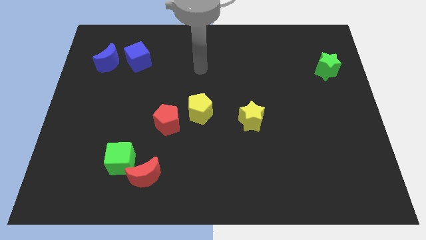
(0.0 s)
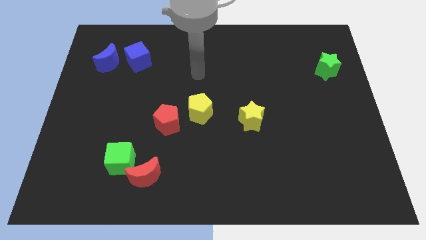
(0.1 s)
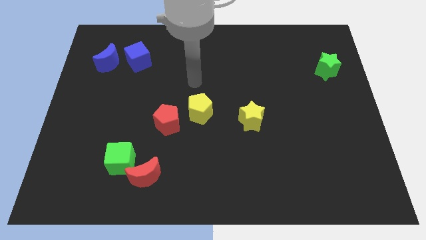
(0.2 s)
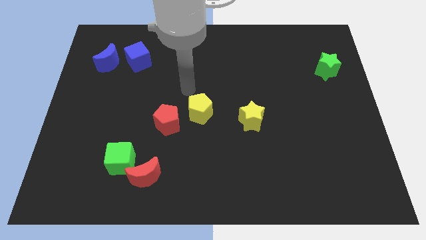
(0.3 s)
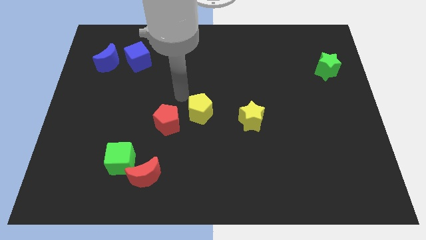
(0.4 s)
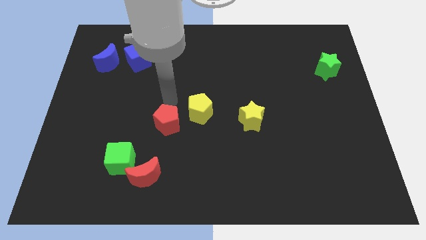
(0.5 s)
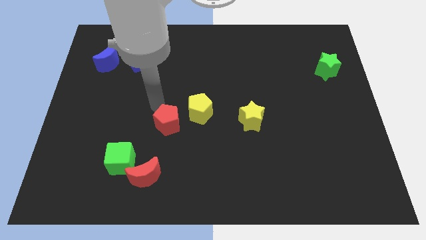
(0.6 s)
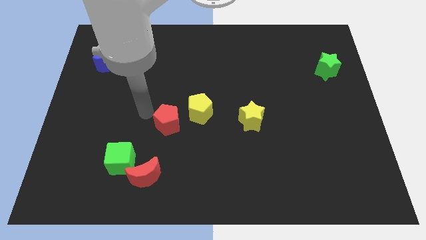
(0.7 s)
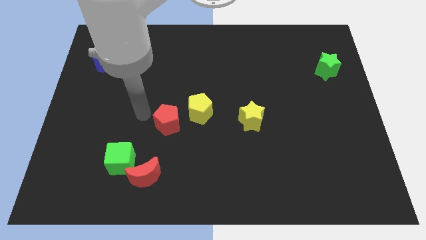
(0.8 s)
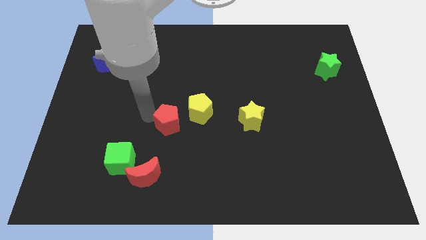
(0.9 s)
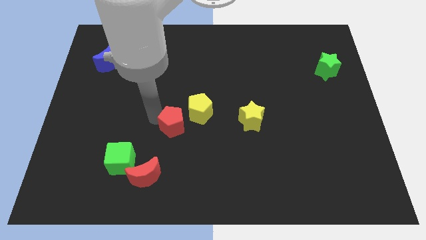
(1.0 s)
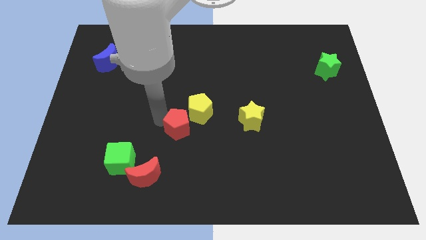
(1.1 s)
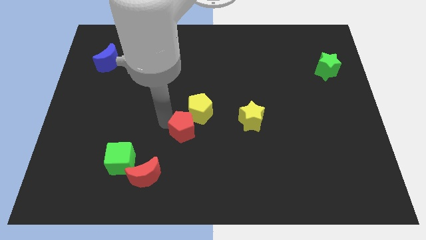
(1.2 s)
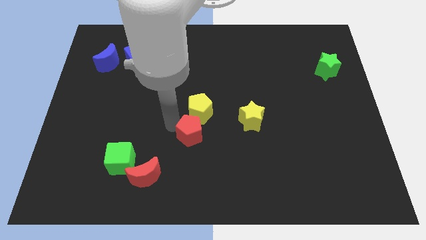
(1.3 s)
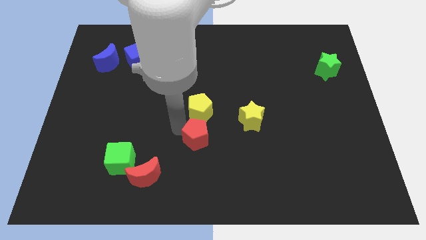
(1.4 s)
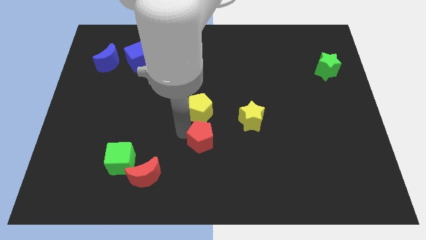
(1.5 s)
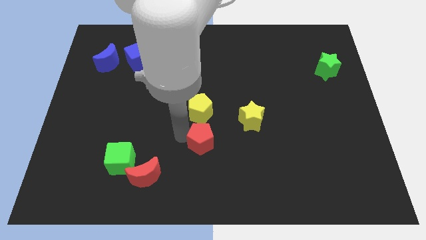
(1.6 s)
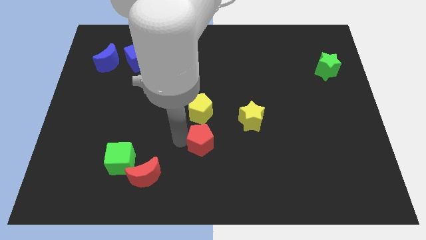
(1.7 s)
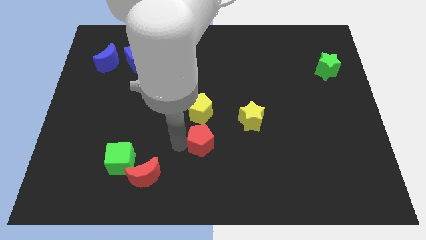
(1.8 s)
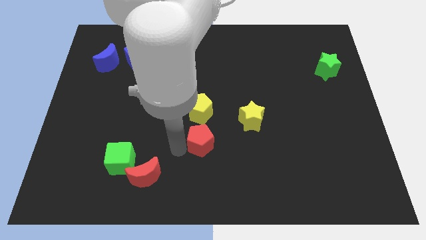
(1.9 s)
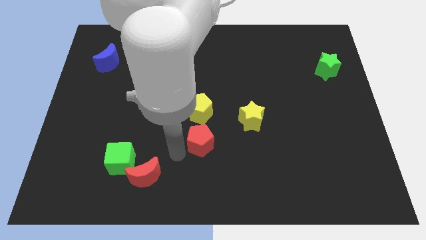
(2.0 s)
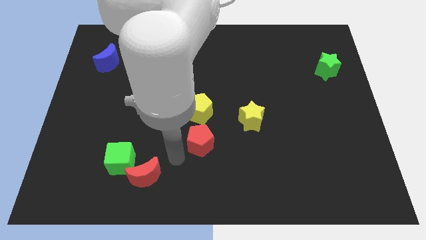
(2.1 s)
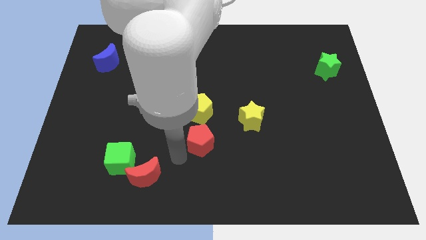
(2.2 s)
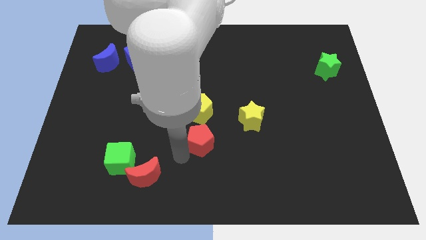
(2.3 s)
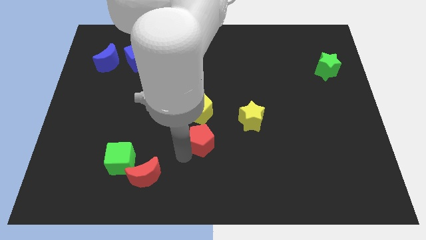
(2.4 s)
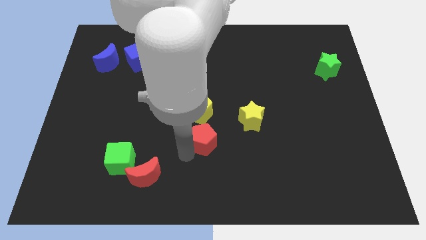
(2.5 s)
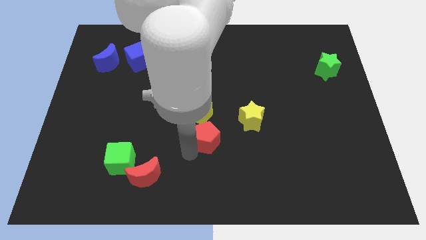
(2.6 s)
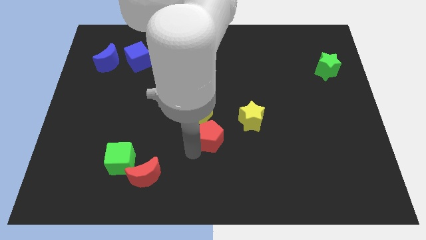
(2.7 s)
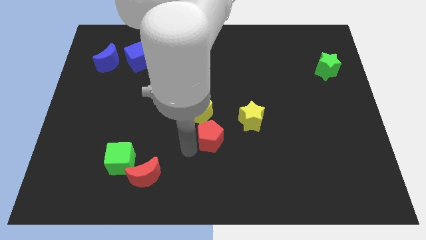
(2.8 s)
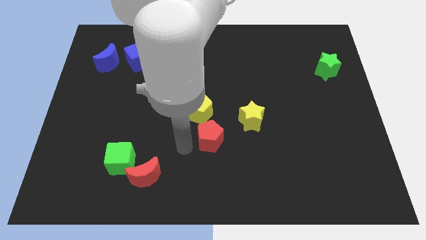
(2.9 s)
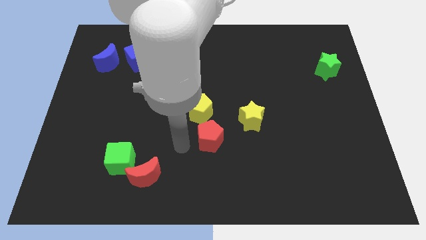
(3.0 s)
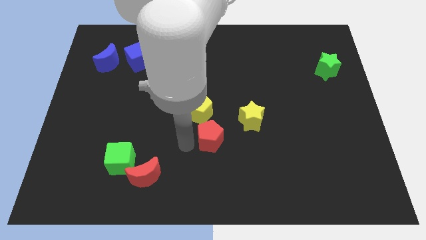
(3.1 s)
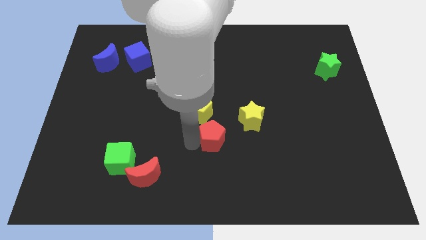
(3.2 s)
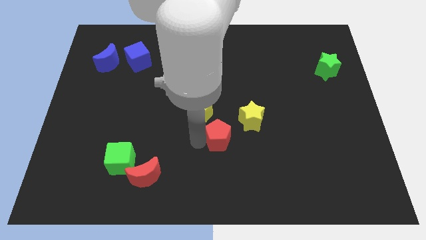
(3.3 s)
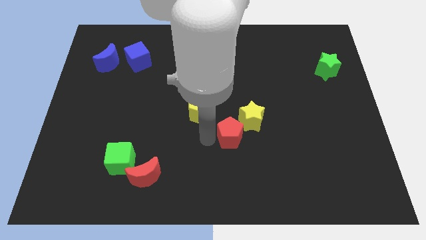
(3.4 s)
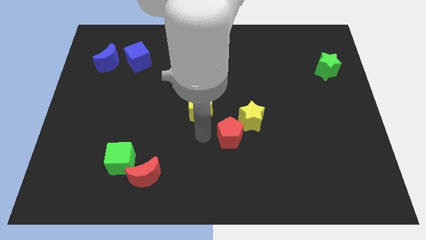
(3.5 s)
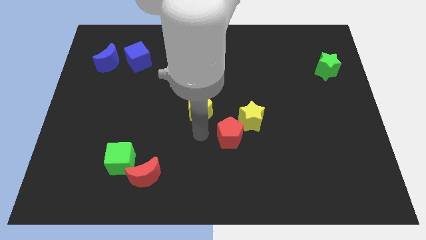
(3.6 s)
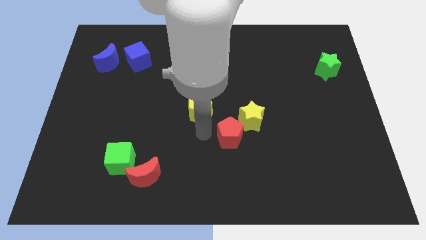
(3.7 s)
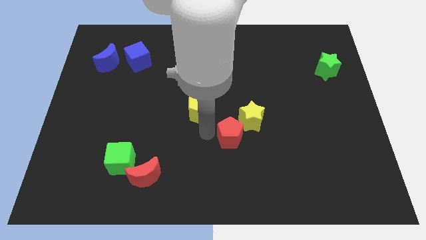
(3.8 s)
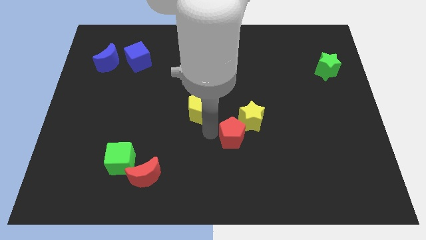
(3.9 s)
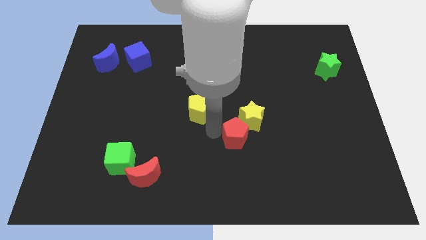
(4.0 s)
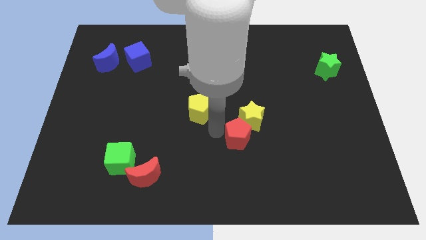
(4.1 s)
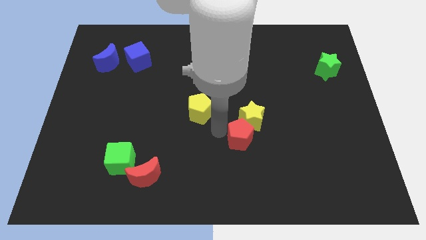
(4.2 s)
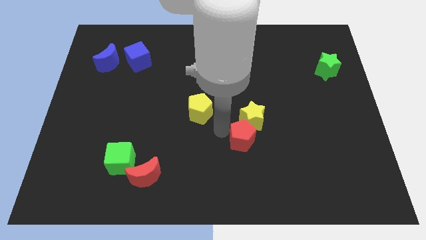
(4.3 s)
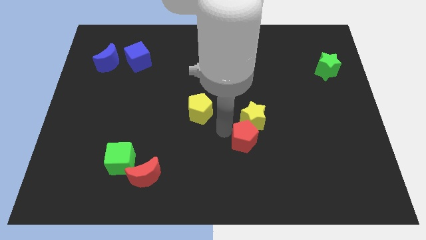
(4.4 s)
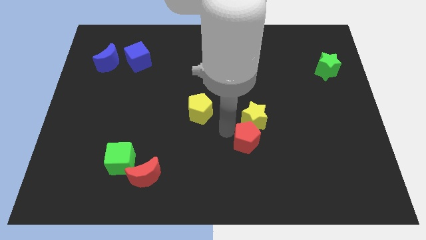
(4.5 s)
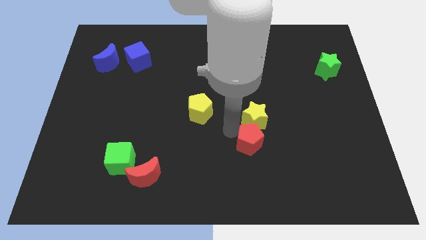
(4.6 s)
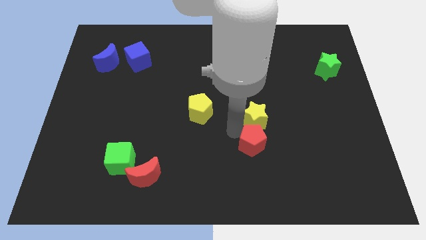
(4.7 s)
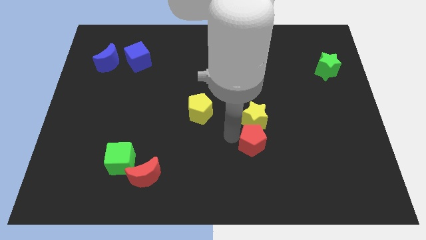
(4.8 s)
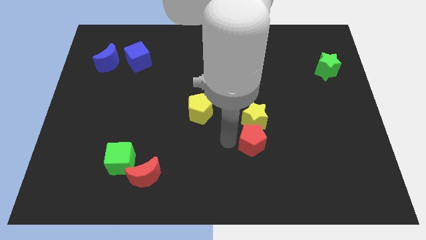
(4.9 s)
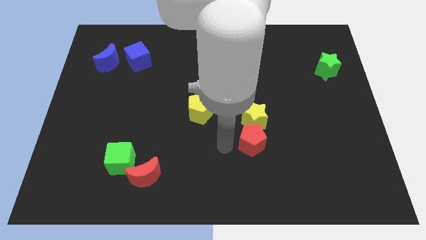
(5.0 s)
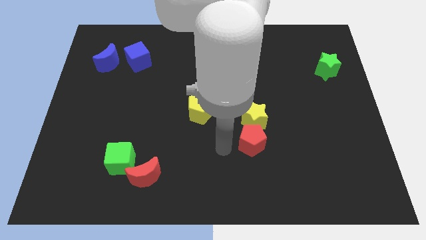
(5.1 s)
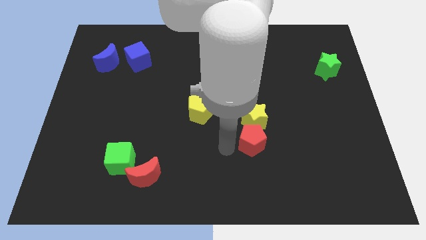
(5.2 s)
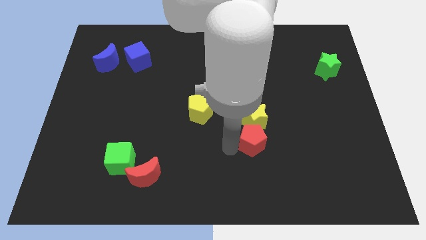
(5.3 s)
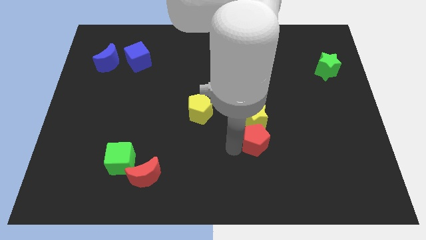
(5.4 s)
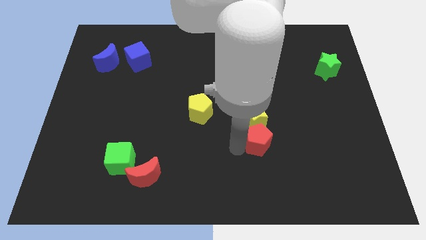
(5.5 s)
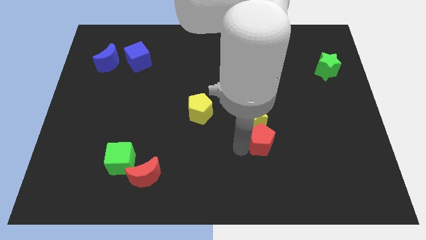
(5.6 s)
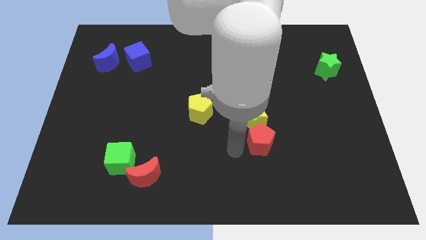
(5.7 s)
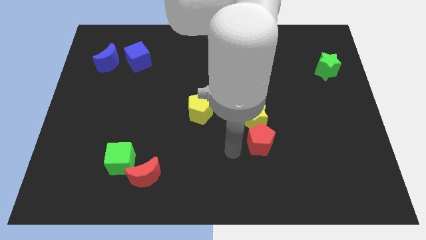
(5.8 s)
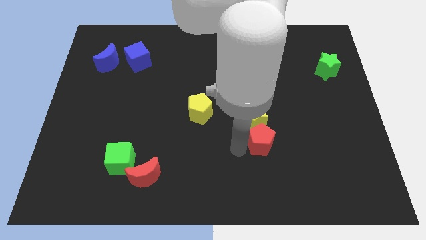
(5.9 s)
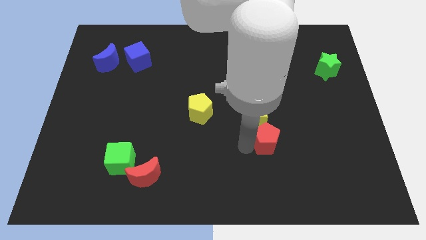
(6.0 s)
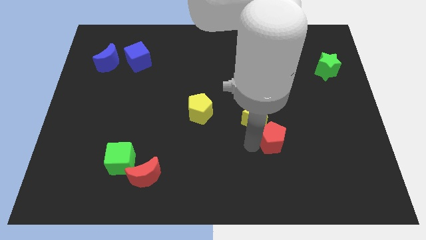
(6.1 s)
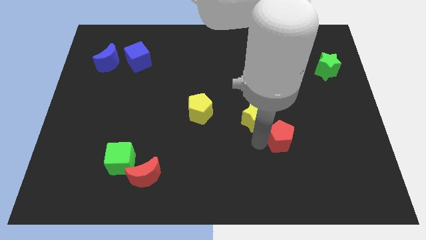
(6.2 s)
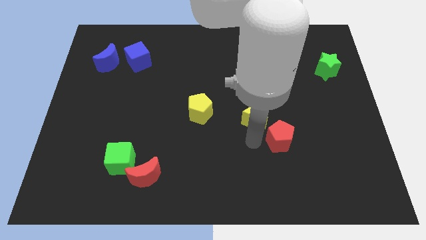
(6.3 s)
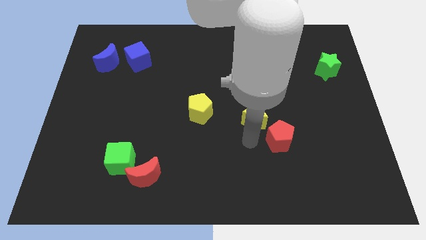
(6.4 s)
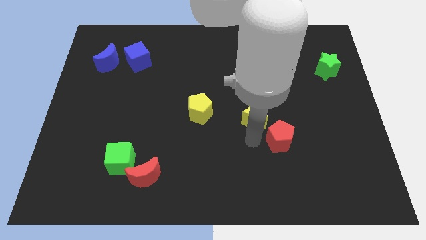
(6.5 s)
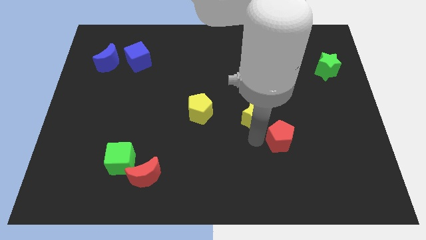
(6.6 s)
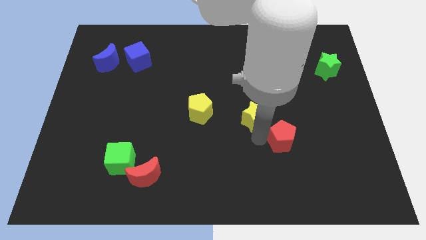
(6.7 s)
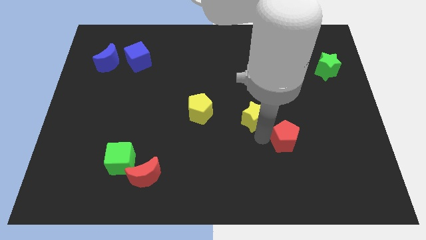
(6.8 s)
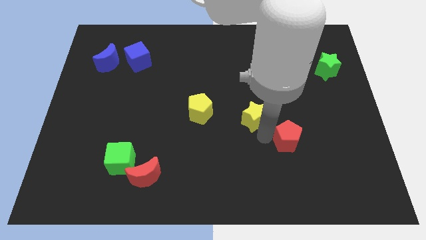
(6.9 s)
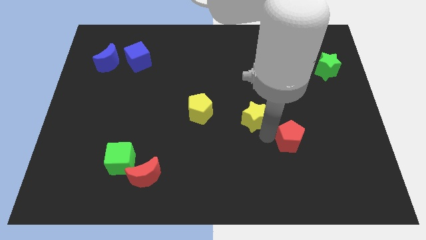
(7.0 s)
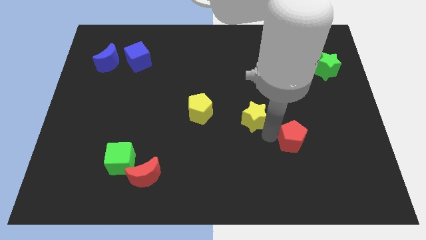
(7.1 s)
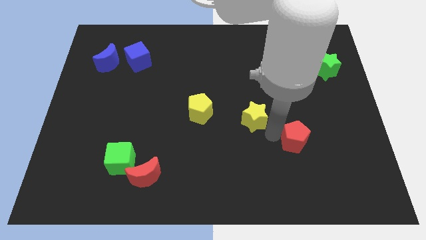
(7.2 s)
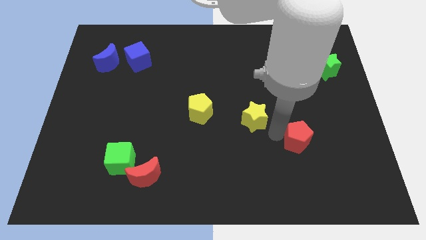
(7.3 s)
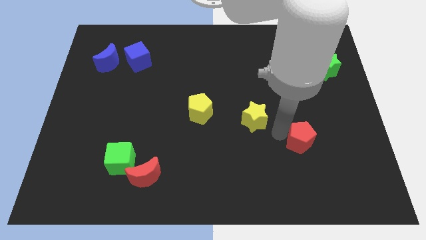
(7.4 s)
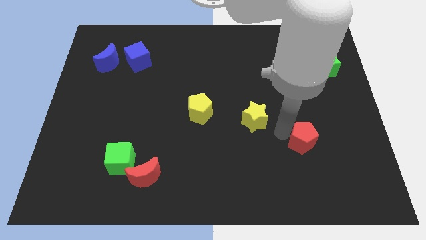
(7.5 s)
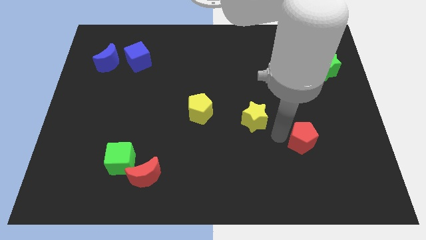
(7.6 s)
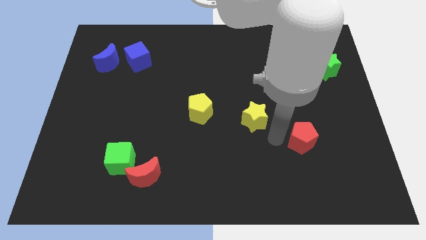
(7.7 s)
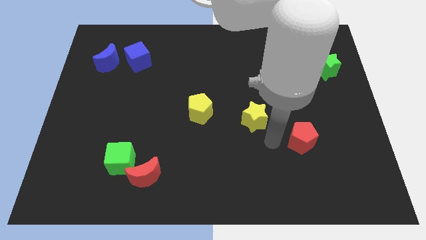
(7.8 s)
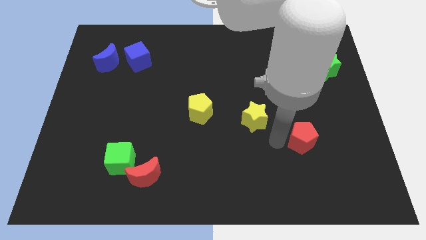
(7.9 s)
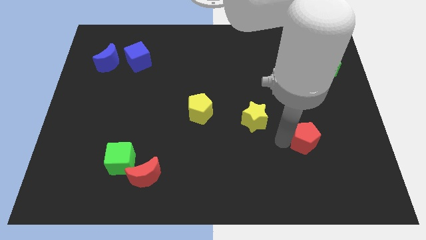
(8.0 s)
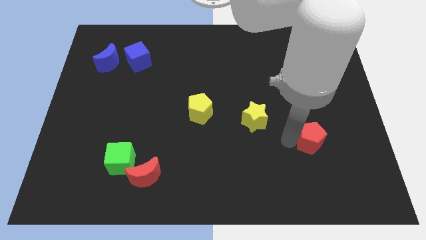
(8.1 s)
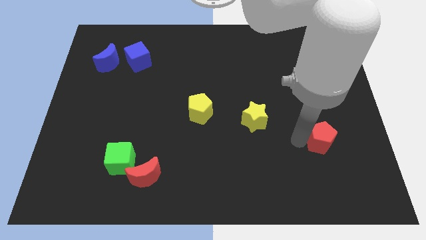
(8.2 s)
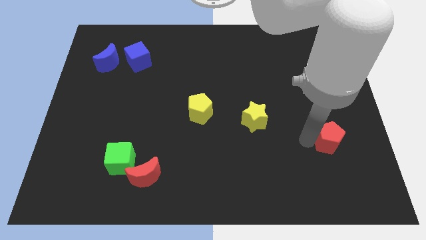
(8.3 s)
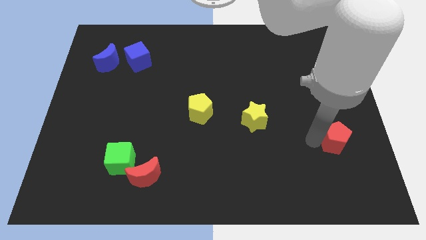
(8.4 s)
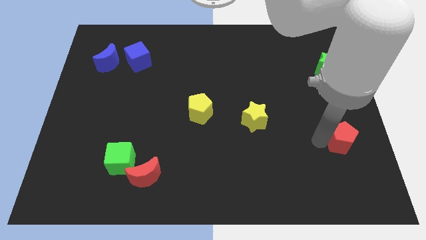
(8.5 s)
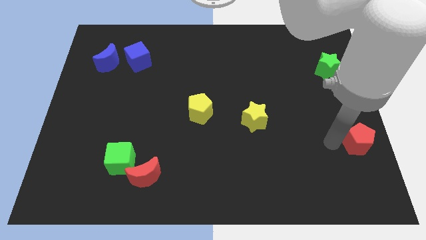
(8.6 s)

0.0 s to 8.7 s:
slide the red pentagon to the center right
